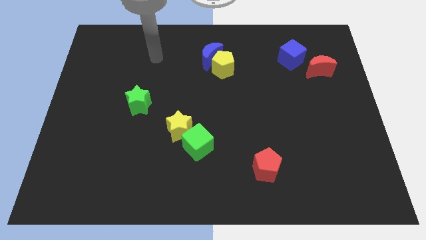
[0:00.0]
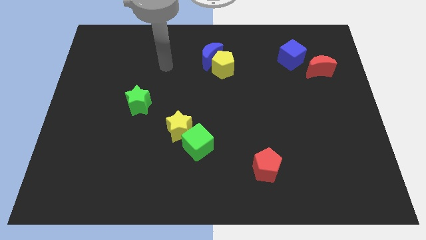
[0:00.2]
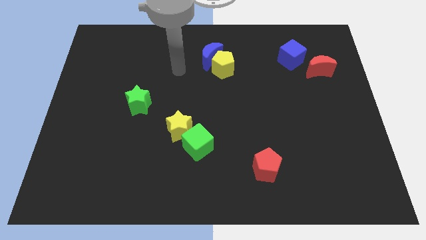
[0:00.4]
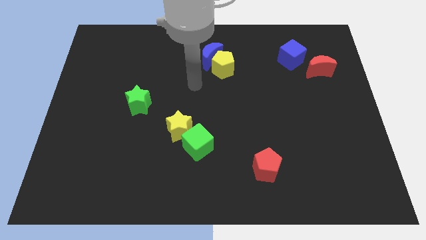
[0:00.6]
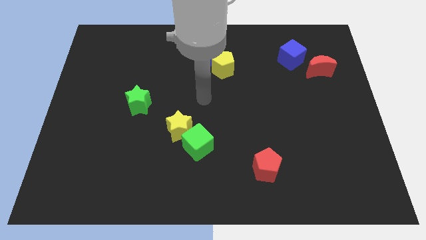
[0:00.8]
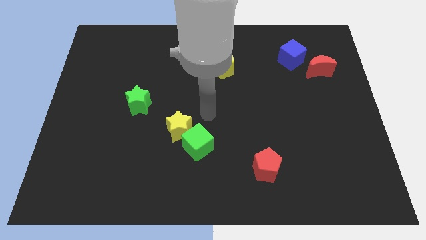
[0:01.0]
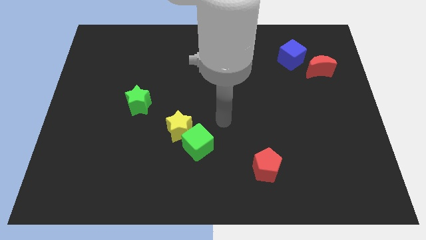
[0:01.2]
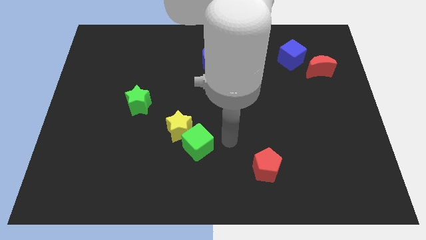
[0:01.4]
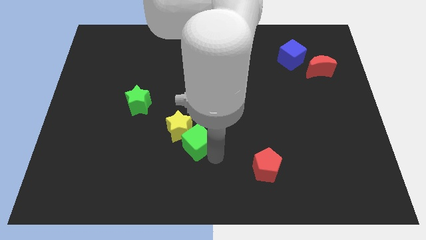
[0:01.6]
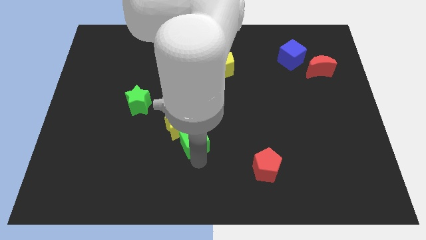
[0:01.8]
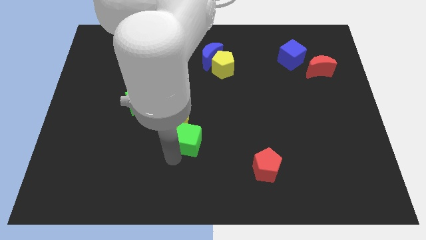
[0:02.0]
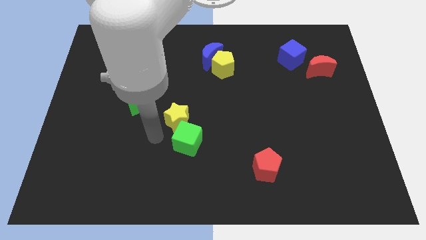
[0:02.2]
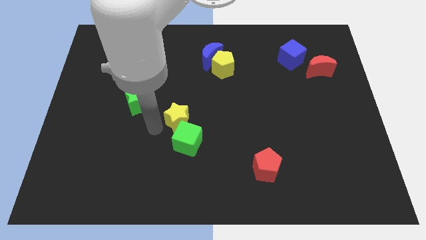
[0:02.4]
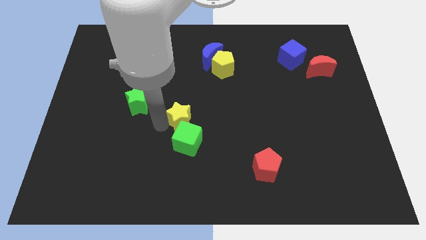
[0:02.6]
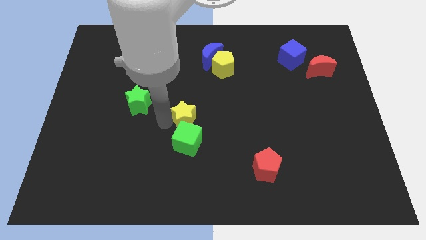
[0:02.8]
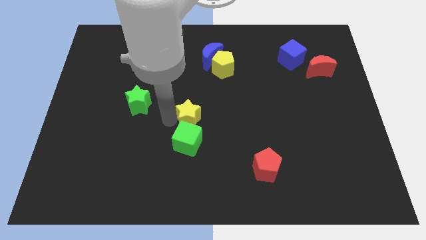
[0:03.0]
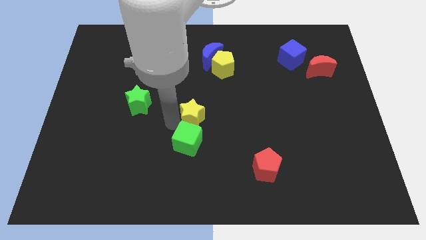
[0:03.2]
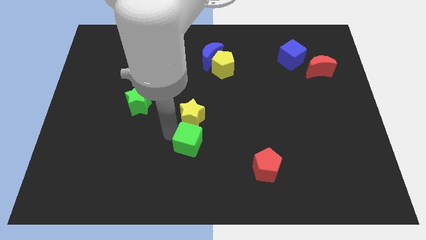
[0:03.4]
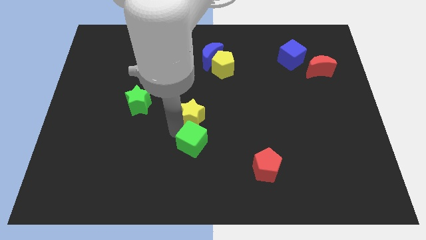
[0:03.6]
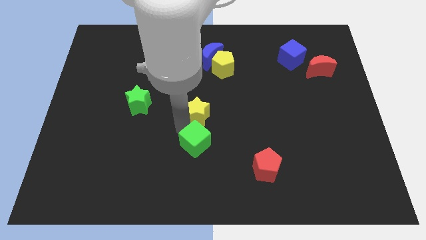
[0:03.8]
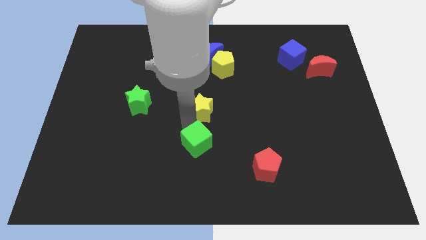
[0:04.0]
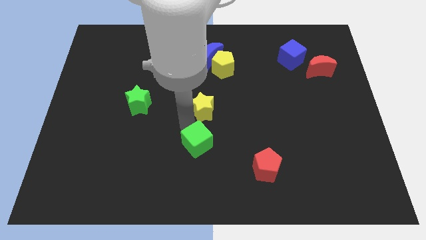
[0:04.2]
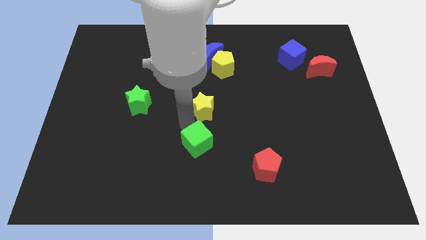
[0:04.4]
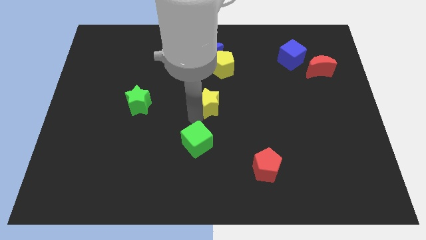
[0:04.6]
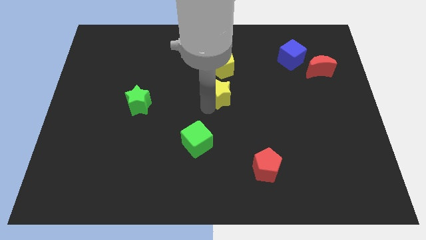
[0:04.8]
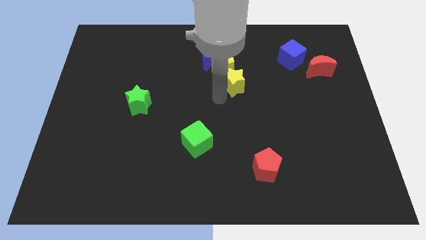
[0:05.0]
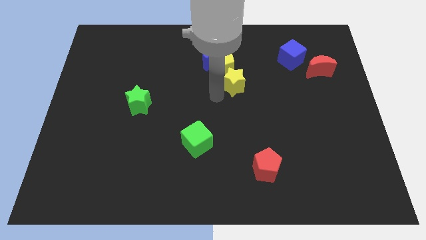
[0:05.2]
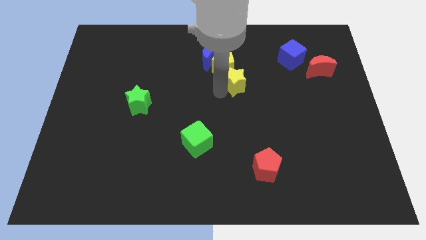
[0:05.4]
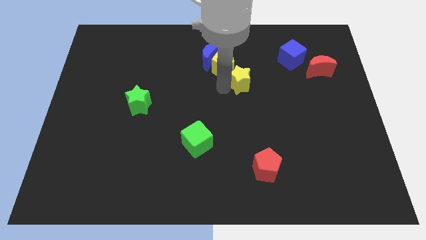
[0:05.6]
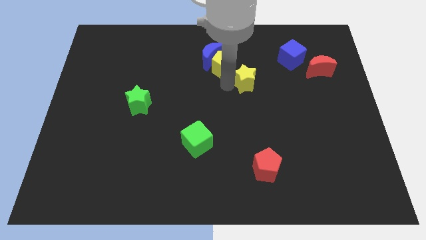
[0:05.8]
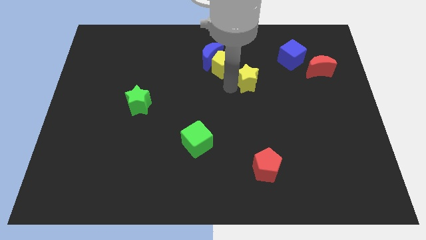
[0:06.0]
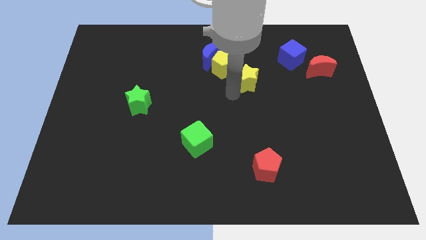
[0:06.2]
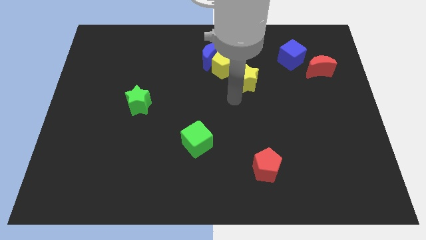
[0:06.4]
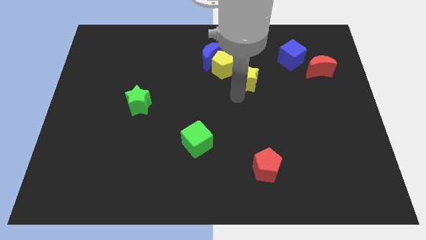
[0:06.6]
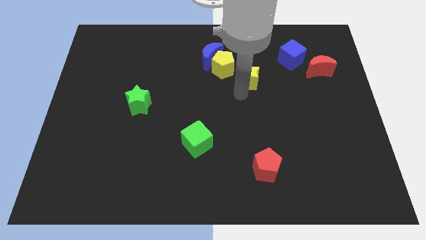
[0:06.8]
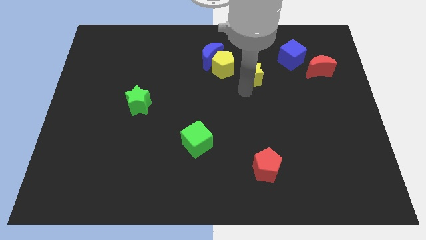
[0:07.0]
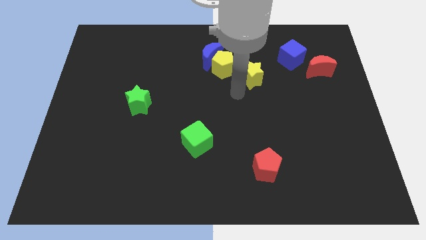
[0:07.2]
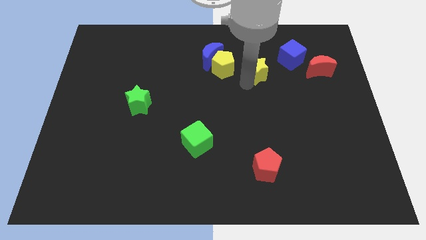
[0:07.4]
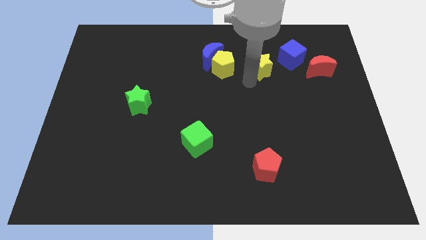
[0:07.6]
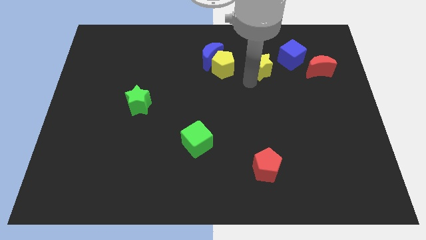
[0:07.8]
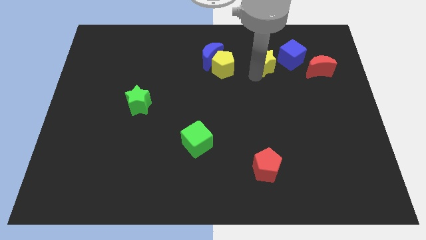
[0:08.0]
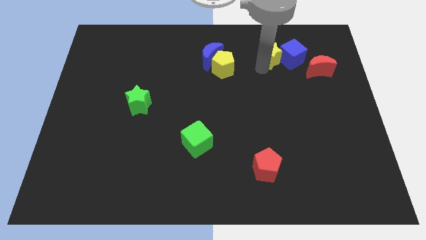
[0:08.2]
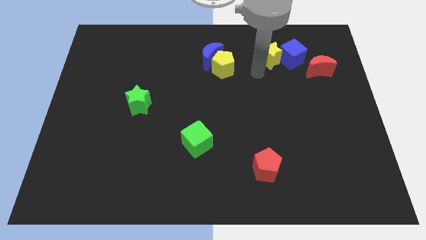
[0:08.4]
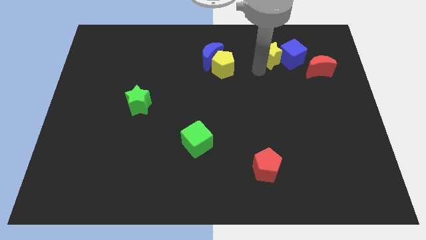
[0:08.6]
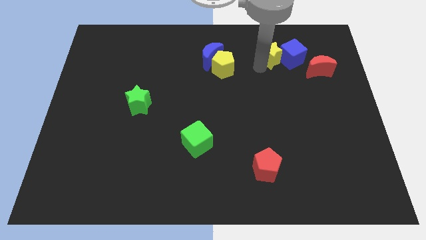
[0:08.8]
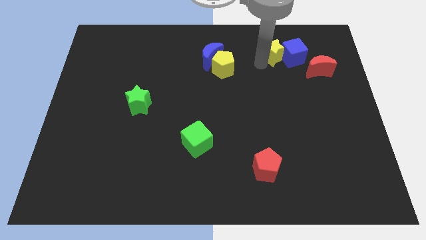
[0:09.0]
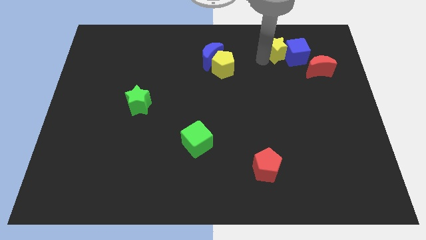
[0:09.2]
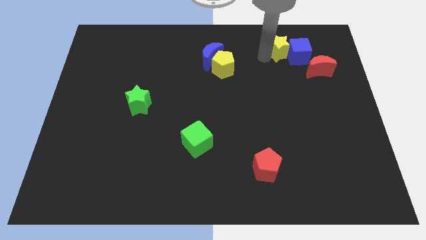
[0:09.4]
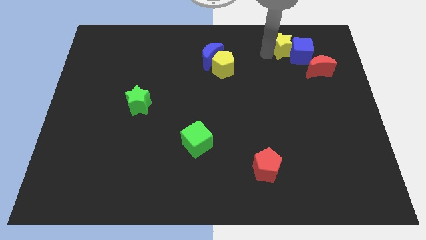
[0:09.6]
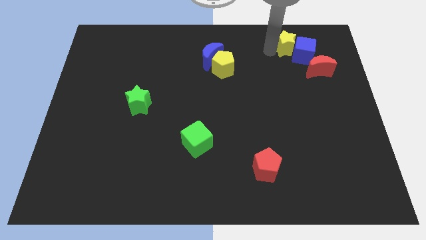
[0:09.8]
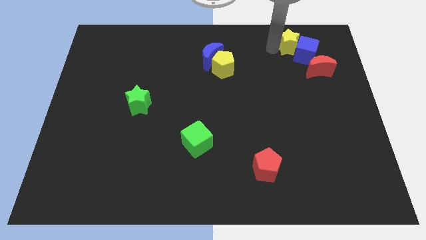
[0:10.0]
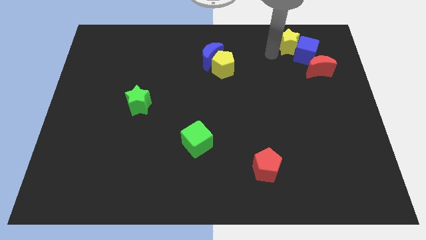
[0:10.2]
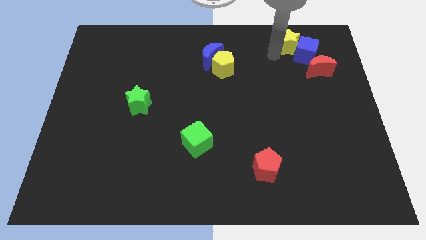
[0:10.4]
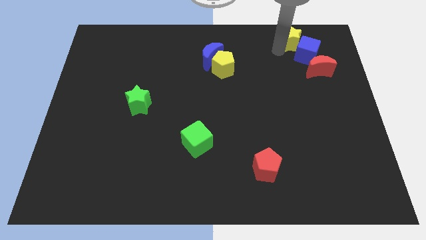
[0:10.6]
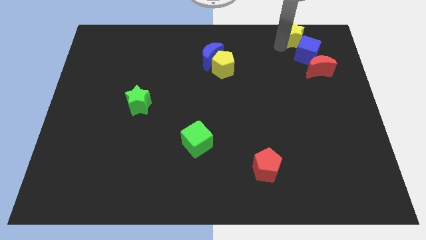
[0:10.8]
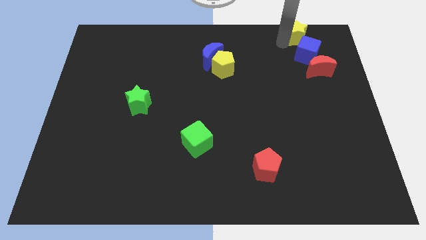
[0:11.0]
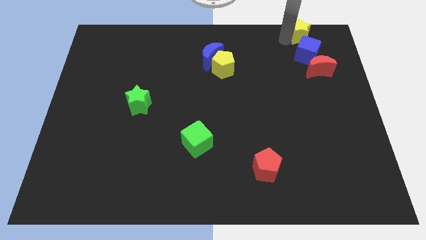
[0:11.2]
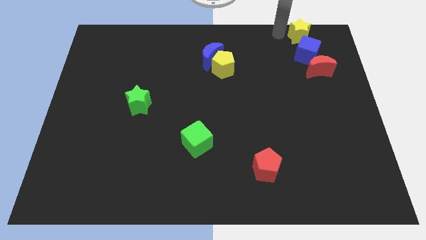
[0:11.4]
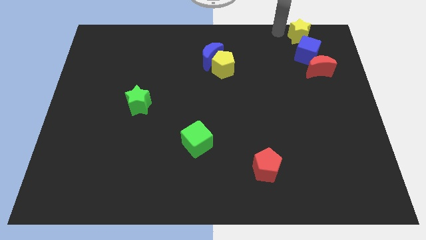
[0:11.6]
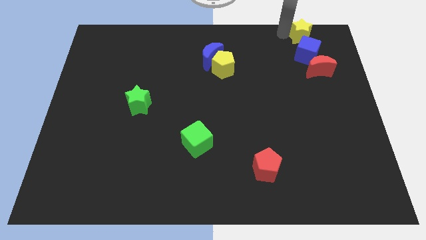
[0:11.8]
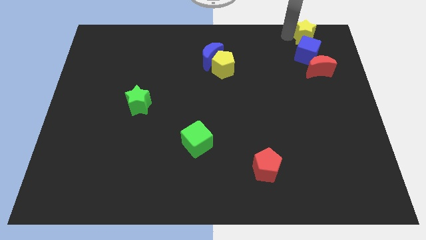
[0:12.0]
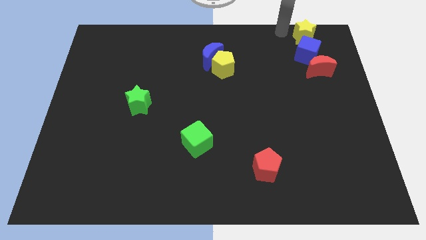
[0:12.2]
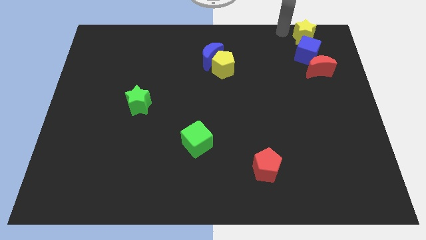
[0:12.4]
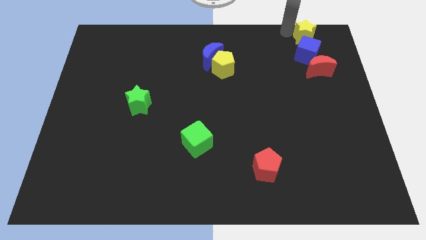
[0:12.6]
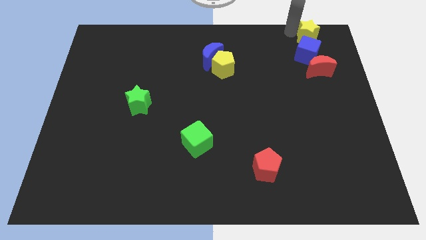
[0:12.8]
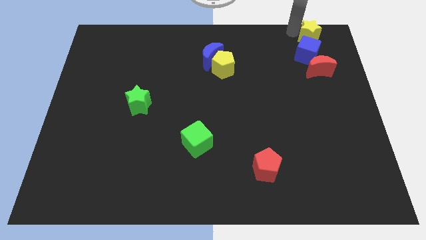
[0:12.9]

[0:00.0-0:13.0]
push the yellow star to the upper right corner
